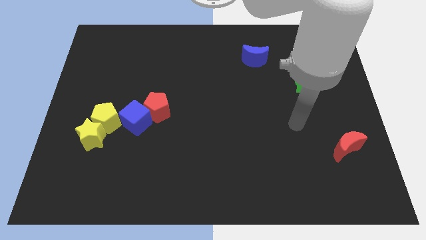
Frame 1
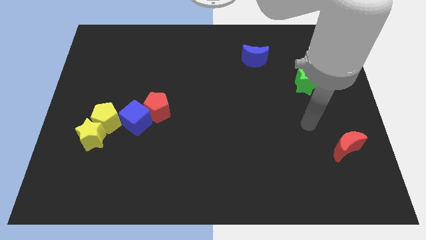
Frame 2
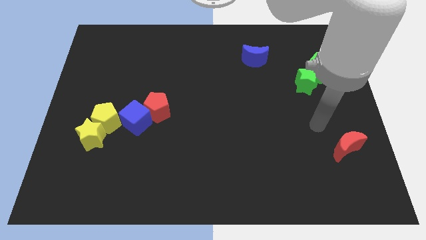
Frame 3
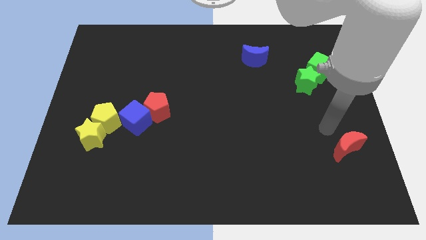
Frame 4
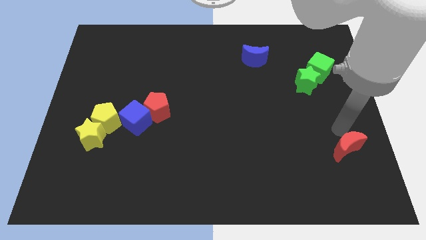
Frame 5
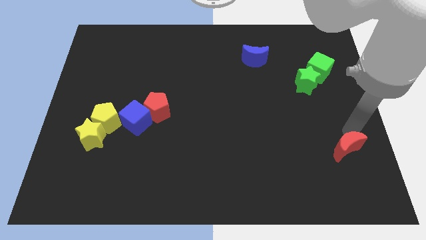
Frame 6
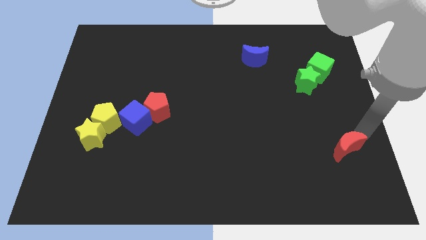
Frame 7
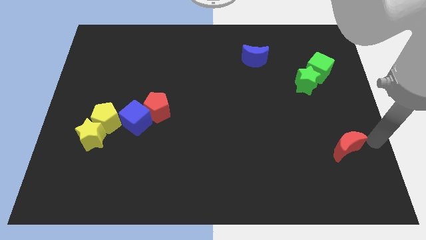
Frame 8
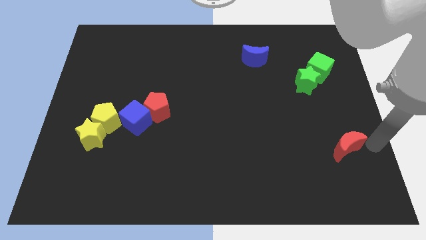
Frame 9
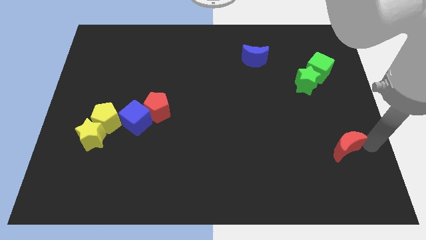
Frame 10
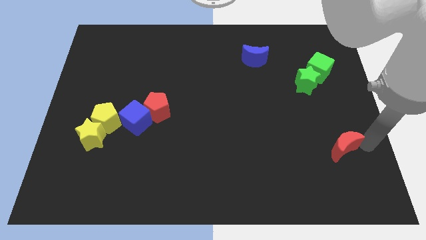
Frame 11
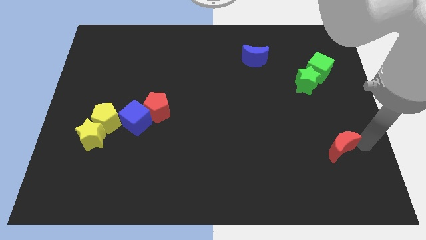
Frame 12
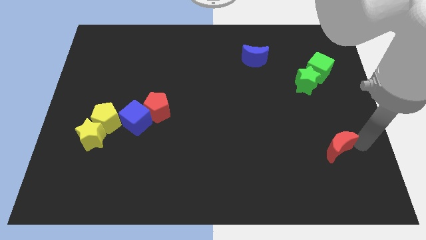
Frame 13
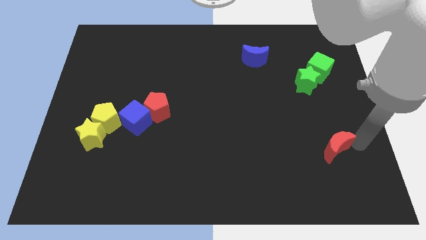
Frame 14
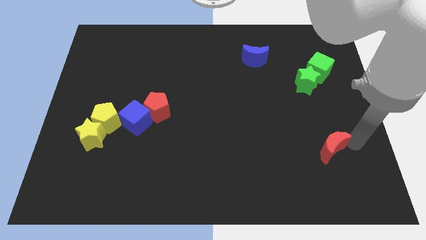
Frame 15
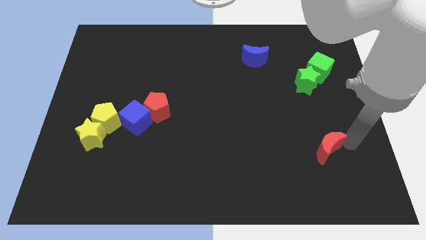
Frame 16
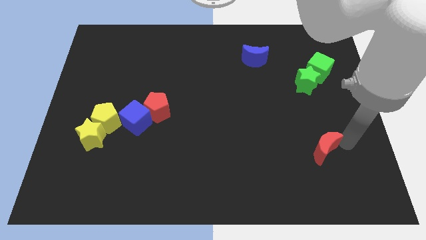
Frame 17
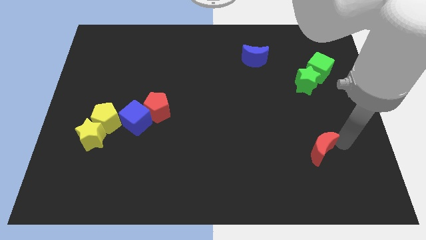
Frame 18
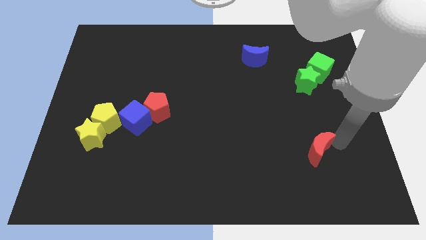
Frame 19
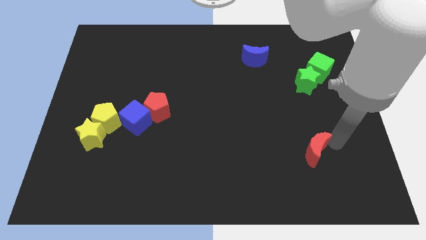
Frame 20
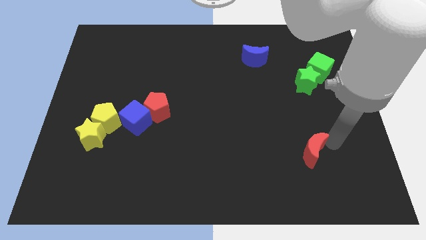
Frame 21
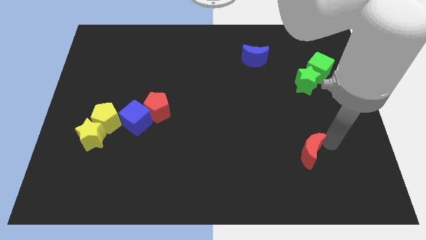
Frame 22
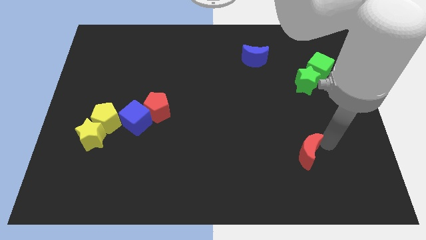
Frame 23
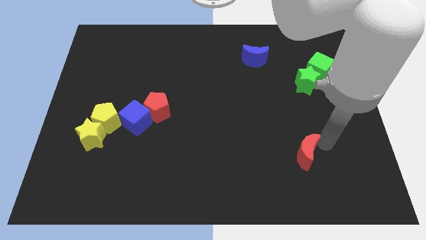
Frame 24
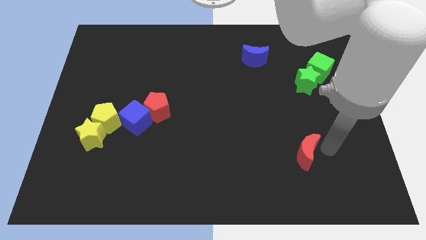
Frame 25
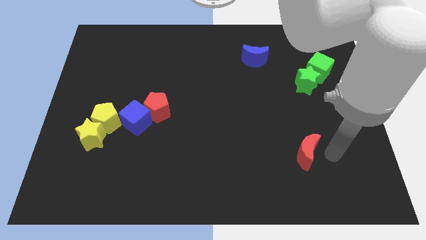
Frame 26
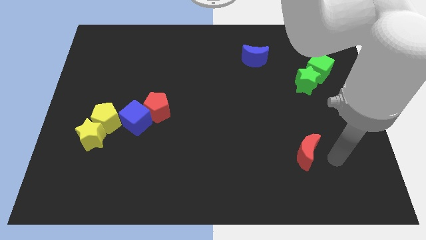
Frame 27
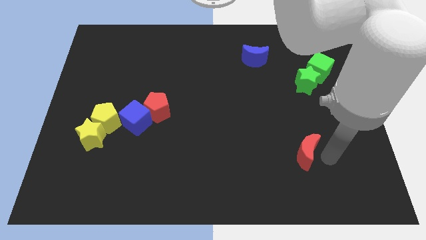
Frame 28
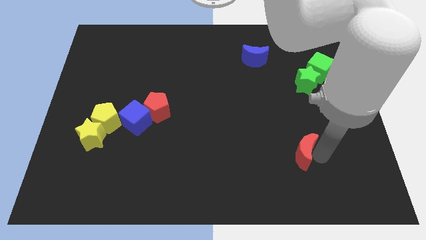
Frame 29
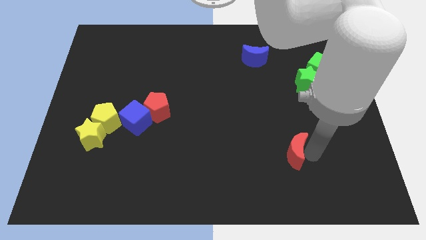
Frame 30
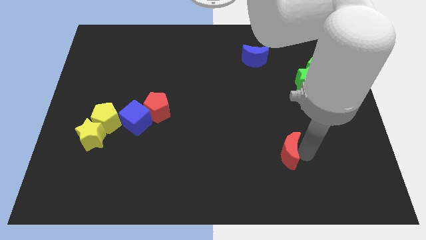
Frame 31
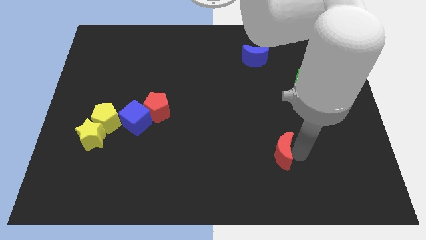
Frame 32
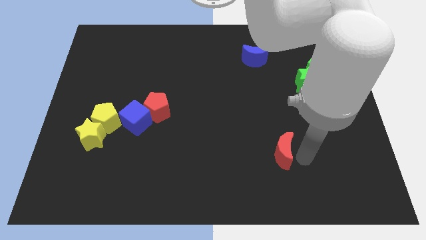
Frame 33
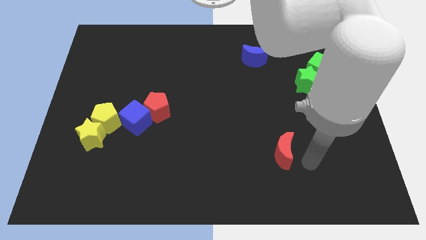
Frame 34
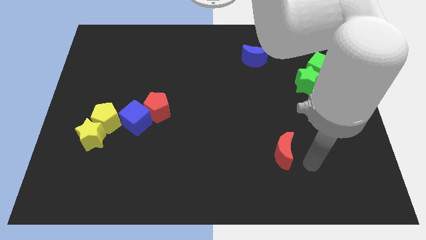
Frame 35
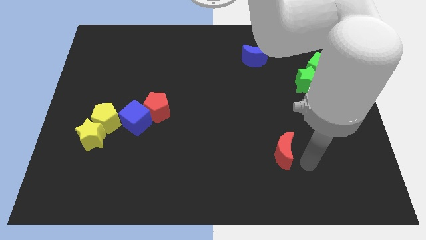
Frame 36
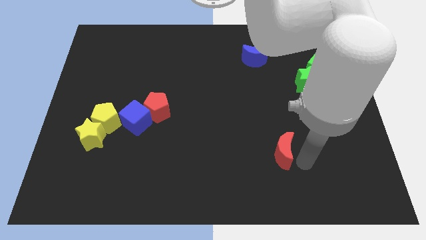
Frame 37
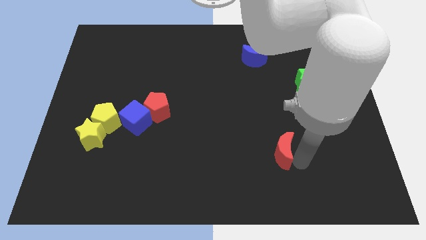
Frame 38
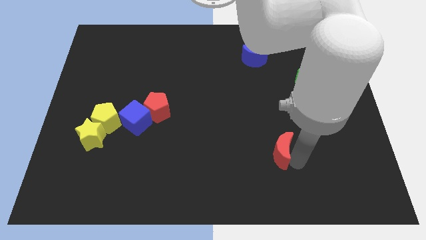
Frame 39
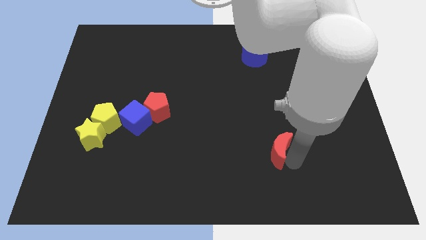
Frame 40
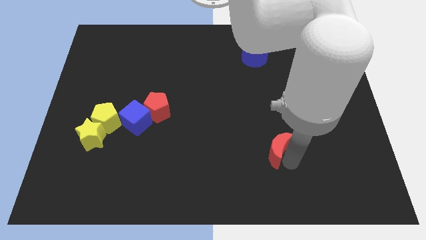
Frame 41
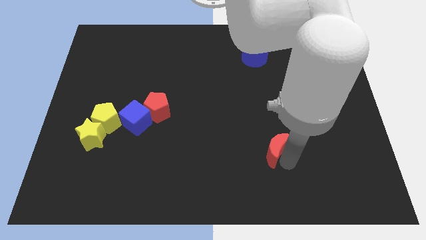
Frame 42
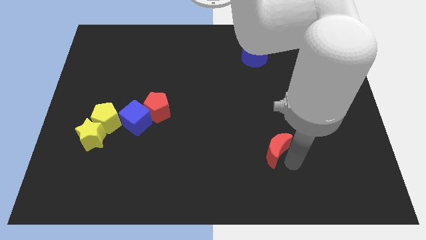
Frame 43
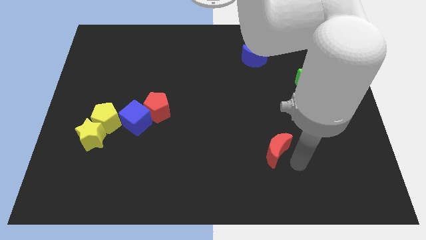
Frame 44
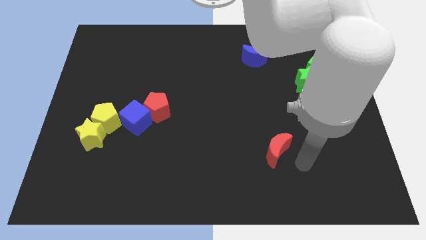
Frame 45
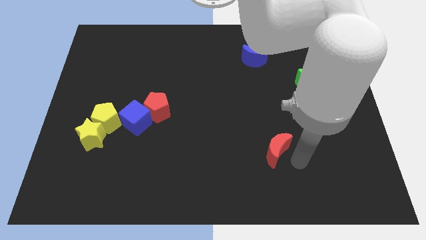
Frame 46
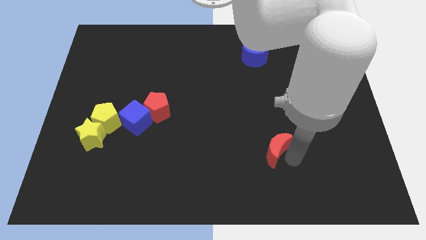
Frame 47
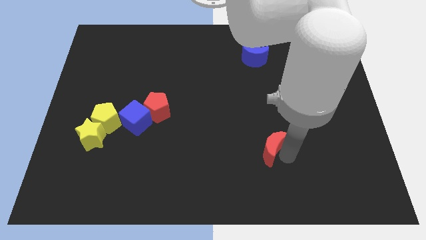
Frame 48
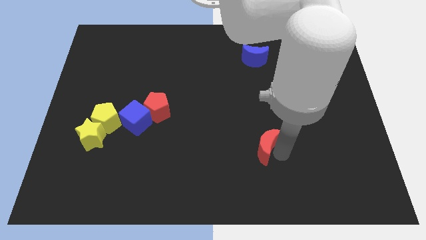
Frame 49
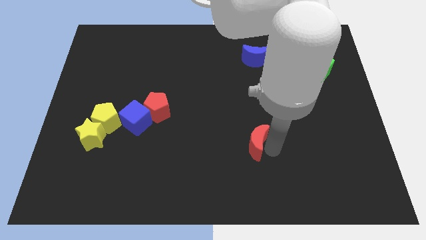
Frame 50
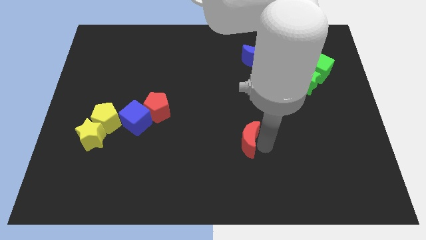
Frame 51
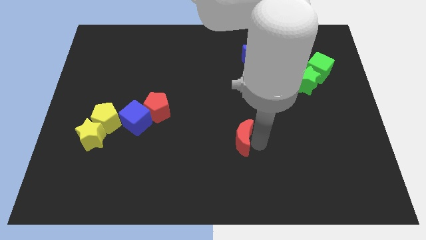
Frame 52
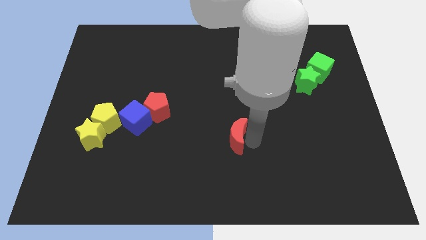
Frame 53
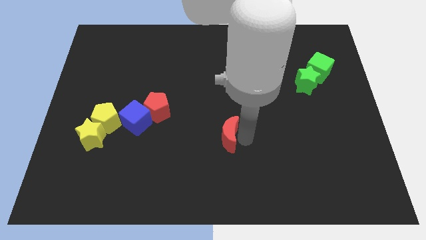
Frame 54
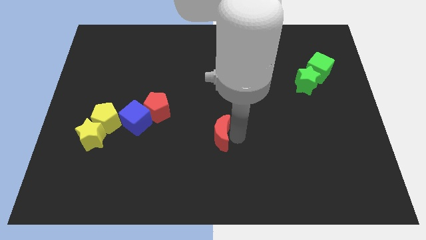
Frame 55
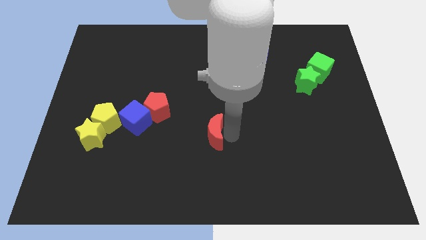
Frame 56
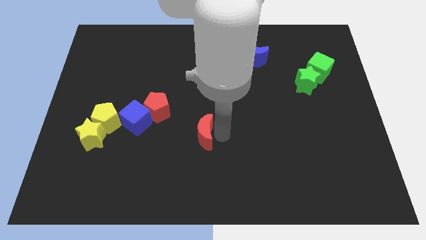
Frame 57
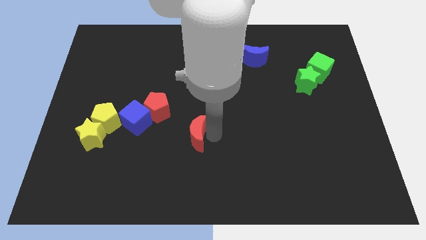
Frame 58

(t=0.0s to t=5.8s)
put the red moon diagonally down and to the right of the red pentagon

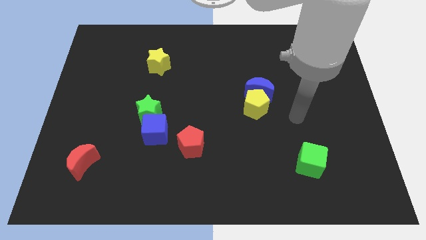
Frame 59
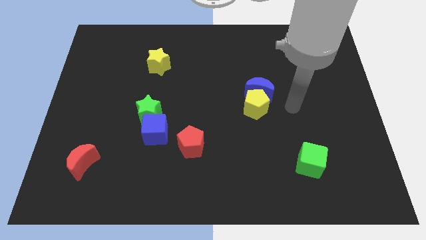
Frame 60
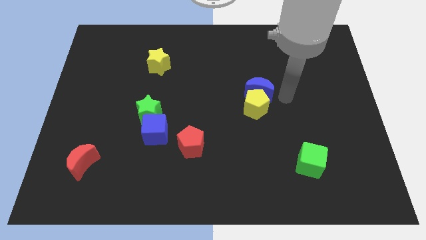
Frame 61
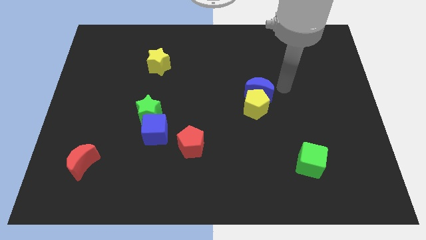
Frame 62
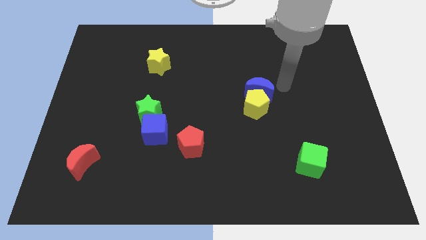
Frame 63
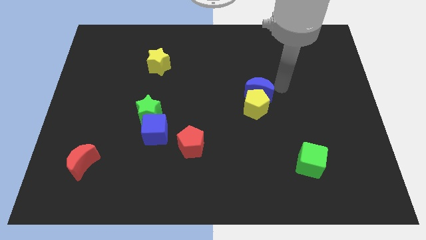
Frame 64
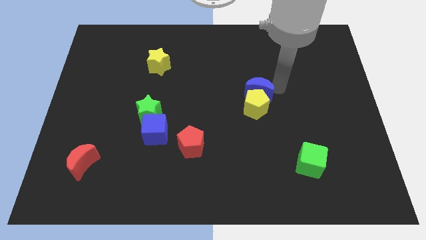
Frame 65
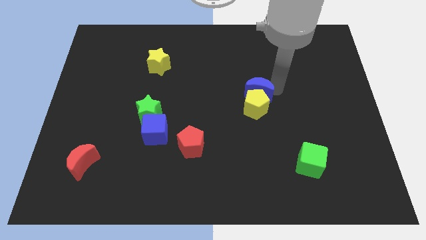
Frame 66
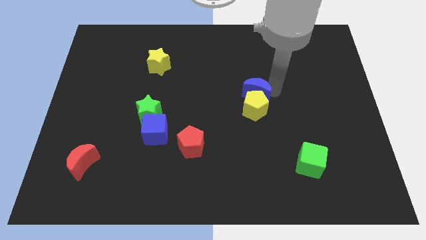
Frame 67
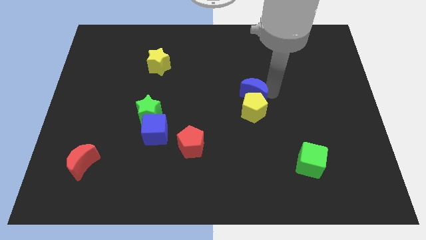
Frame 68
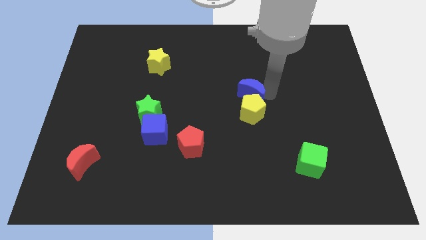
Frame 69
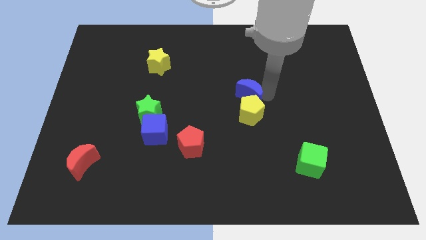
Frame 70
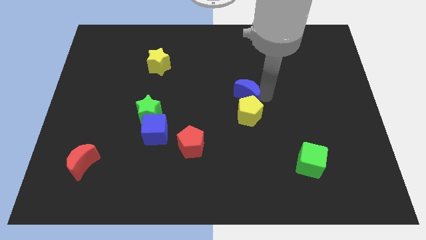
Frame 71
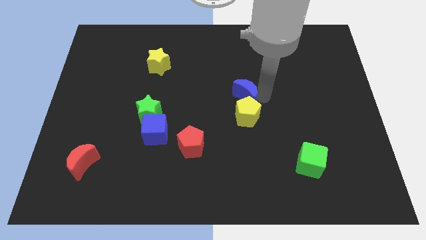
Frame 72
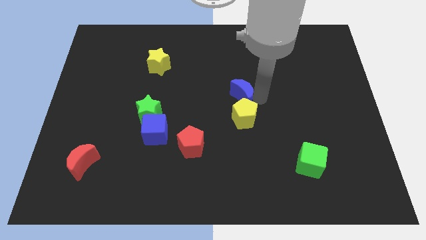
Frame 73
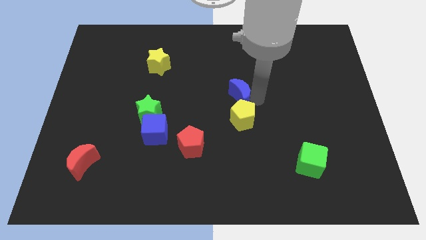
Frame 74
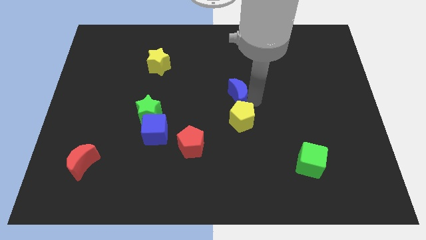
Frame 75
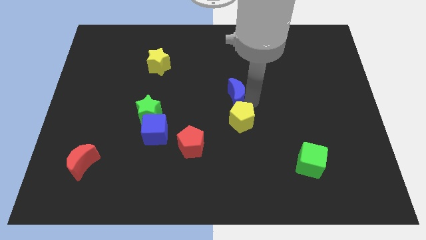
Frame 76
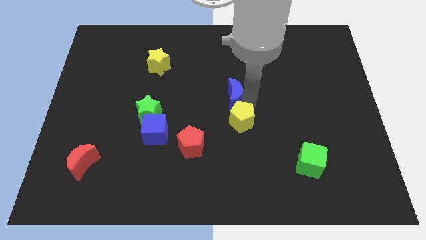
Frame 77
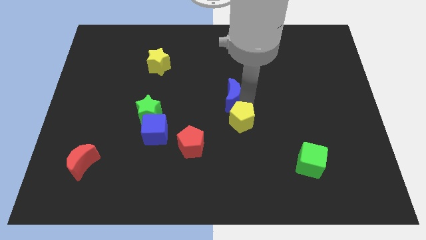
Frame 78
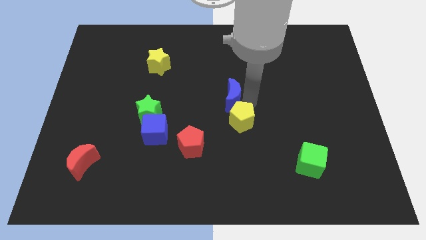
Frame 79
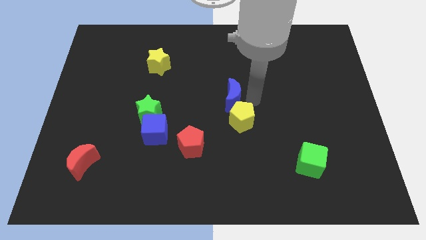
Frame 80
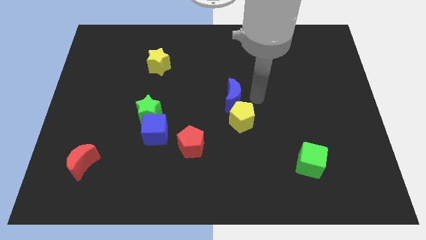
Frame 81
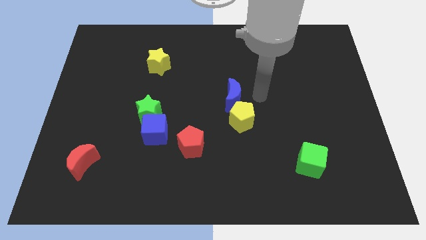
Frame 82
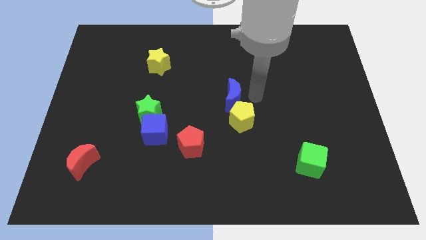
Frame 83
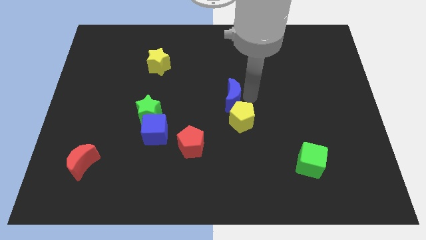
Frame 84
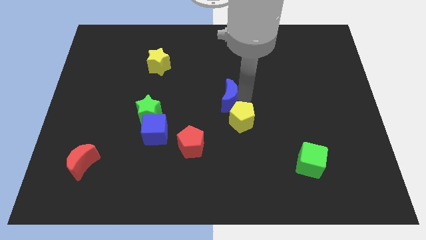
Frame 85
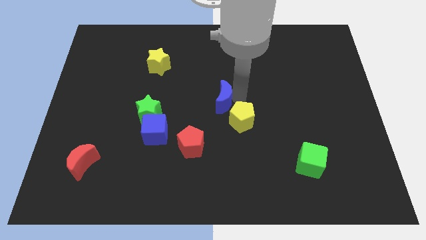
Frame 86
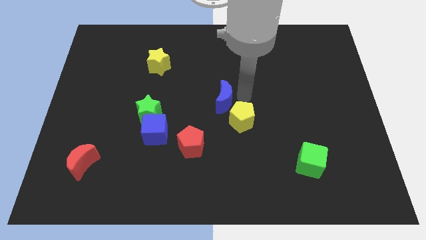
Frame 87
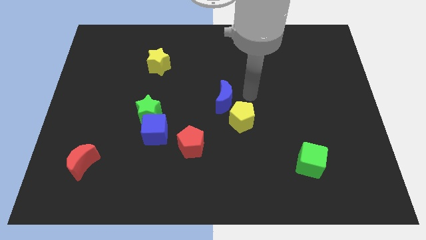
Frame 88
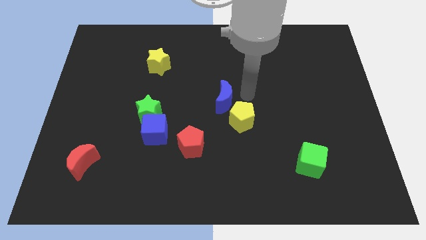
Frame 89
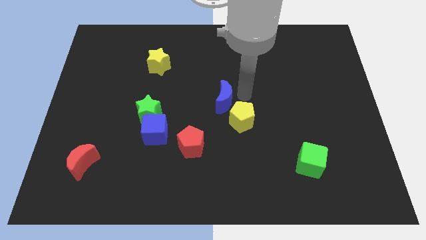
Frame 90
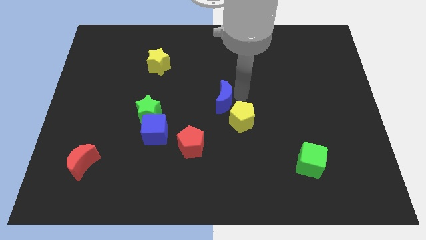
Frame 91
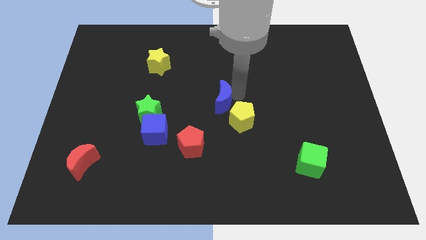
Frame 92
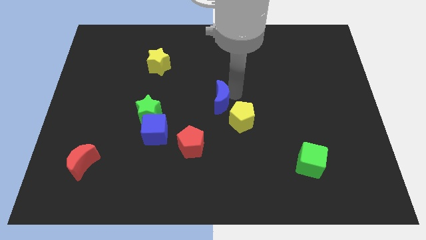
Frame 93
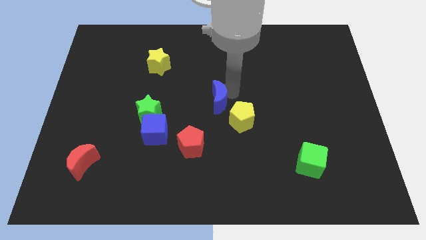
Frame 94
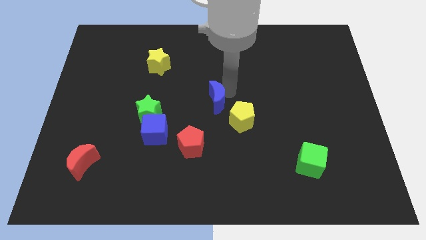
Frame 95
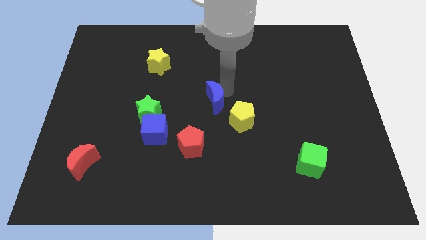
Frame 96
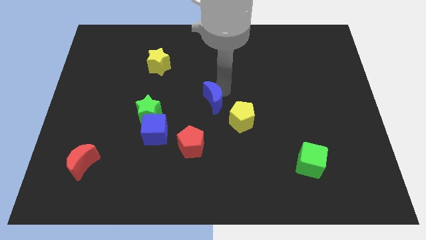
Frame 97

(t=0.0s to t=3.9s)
put the blue moon to the top of the red pentagon
